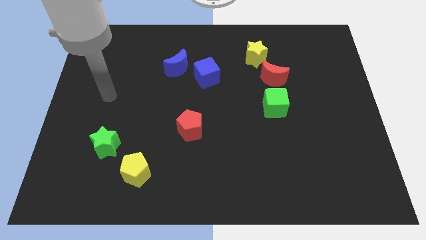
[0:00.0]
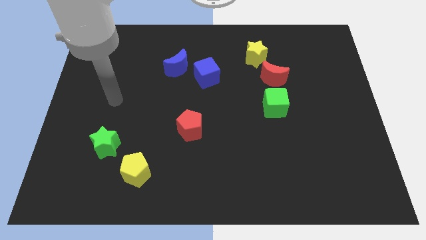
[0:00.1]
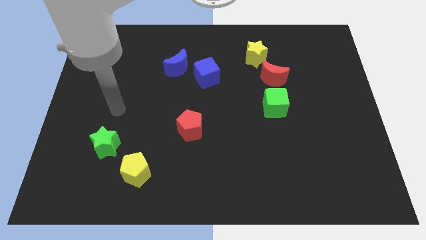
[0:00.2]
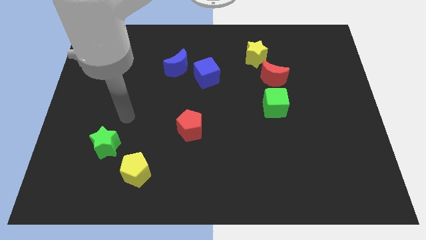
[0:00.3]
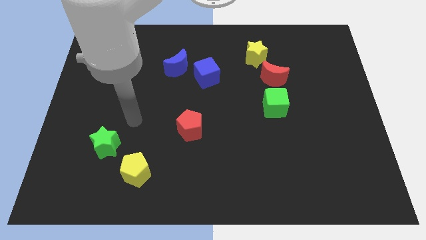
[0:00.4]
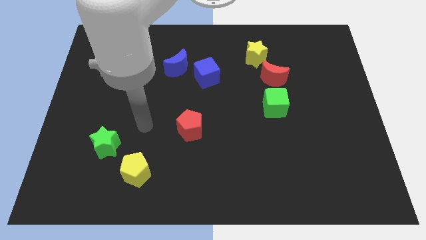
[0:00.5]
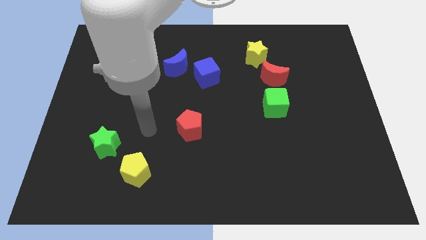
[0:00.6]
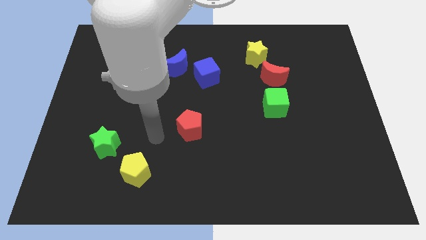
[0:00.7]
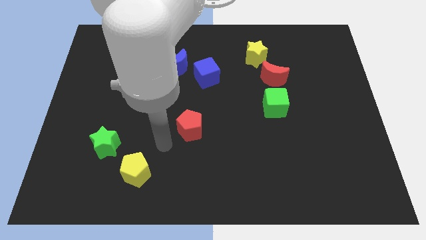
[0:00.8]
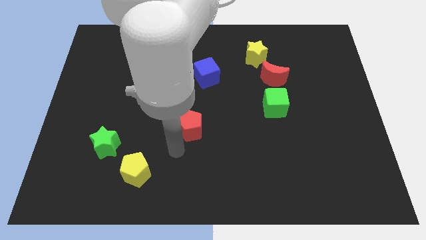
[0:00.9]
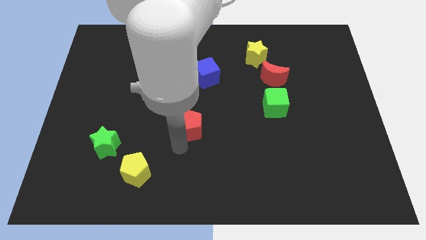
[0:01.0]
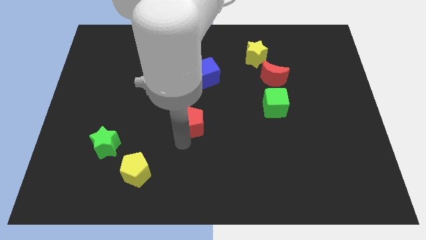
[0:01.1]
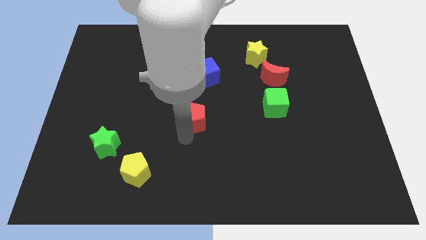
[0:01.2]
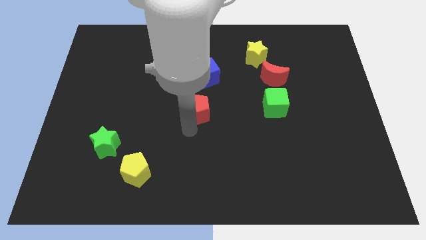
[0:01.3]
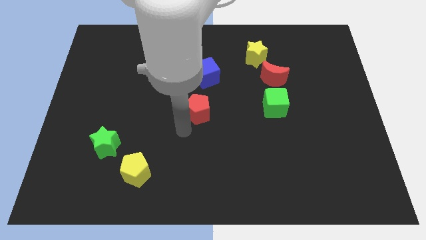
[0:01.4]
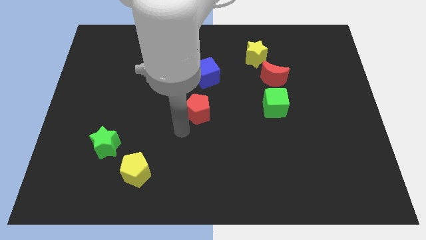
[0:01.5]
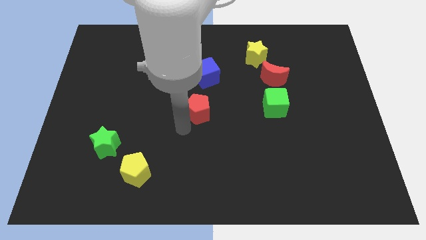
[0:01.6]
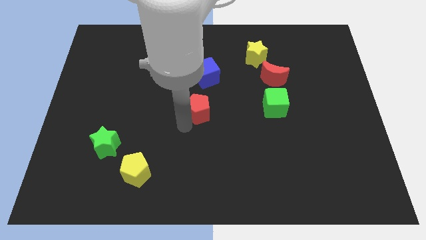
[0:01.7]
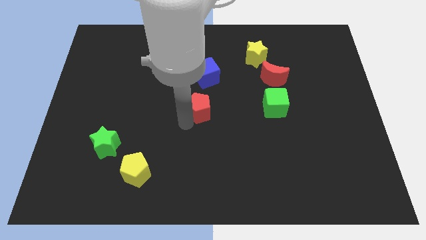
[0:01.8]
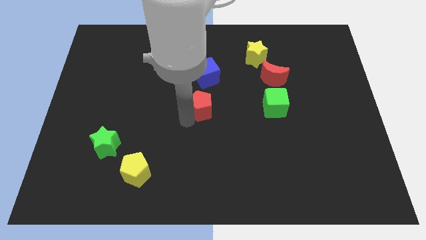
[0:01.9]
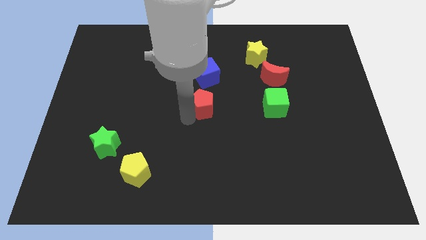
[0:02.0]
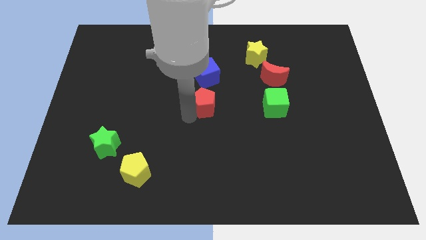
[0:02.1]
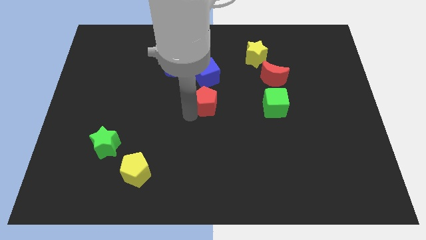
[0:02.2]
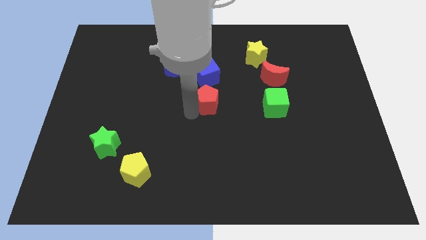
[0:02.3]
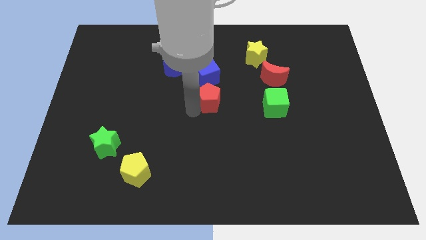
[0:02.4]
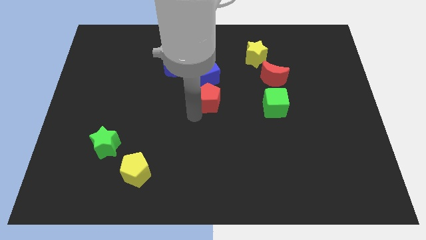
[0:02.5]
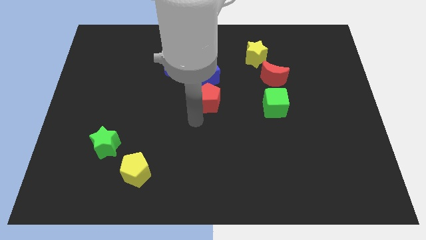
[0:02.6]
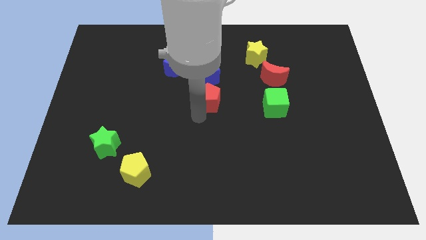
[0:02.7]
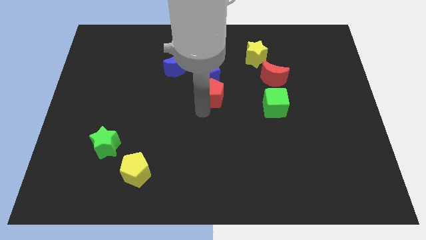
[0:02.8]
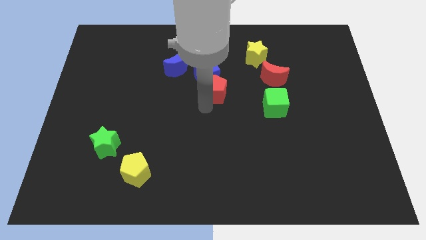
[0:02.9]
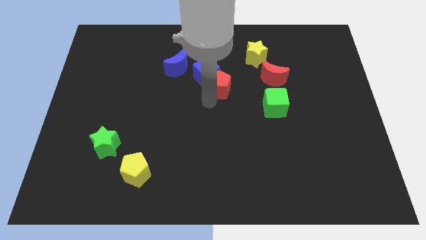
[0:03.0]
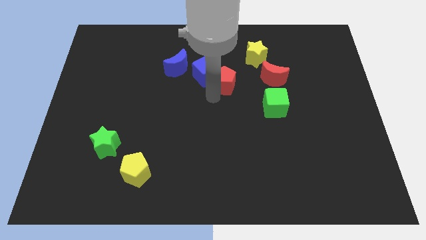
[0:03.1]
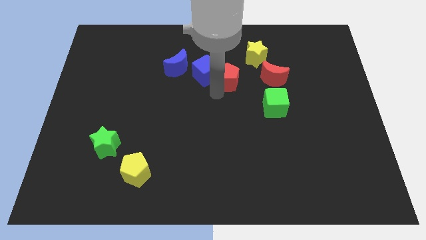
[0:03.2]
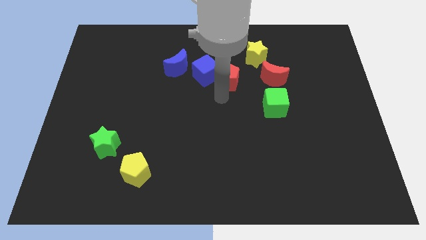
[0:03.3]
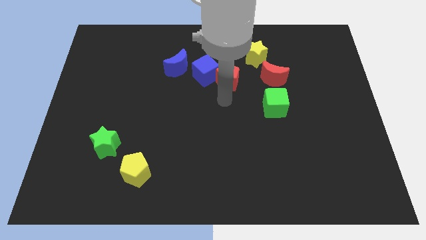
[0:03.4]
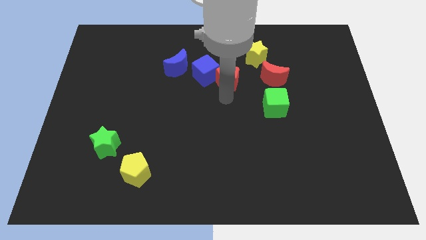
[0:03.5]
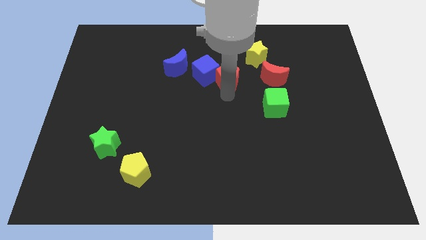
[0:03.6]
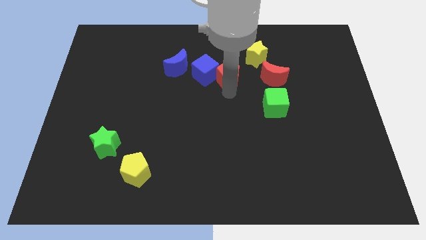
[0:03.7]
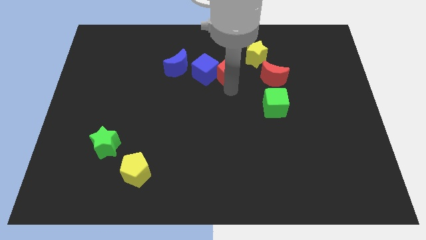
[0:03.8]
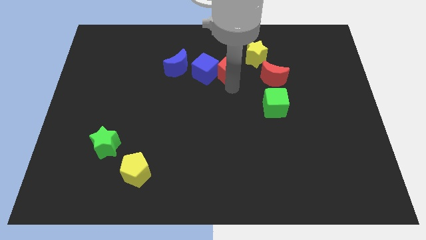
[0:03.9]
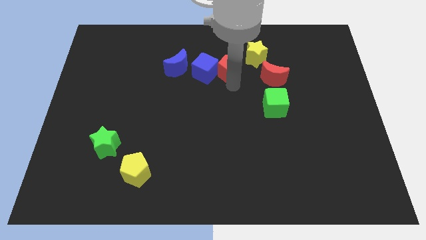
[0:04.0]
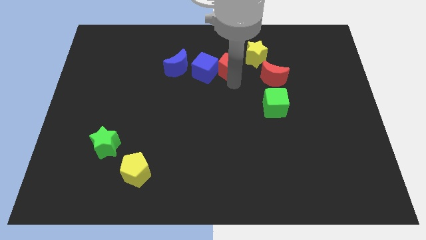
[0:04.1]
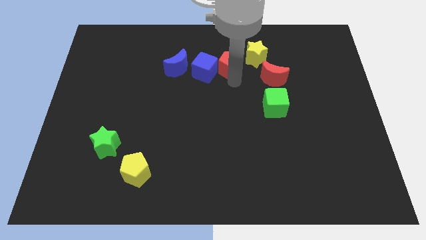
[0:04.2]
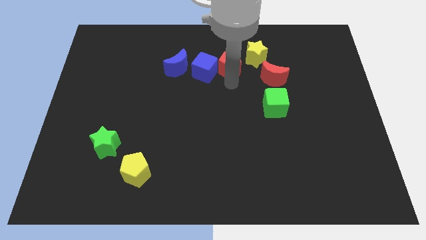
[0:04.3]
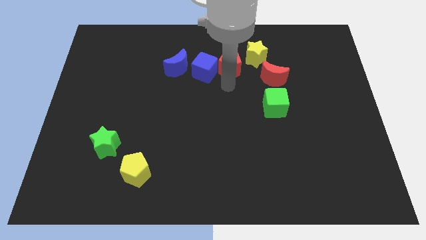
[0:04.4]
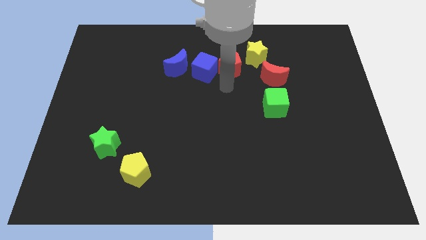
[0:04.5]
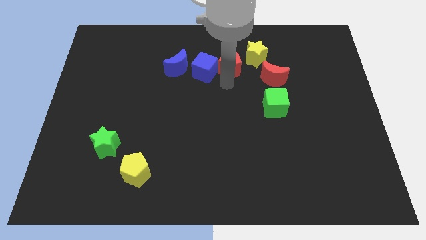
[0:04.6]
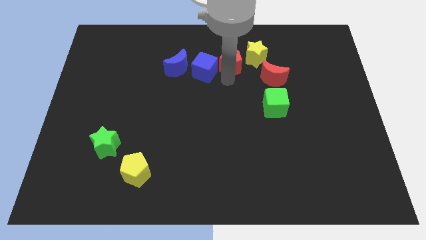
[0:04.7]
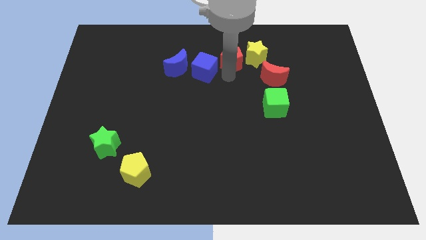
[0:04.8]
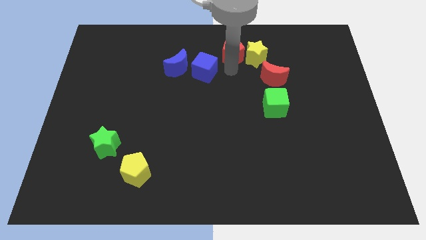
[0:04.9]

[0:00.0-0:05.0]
slide the red pentagon to the top side

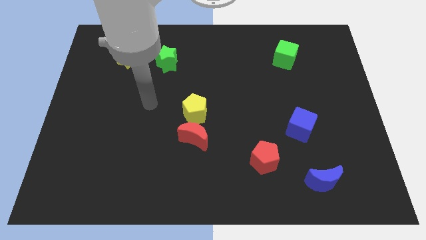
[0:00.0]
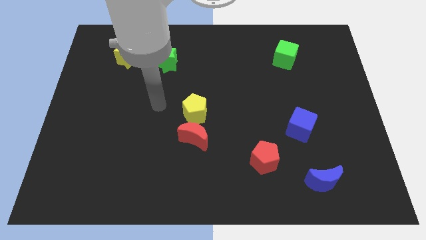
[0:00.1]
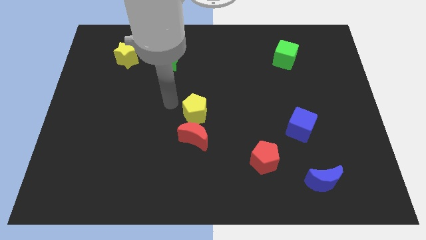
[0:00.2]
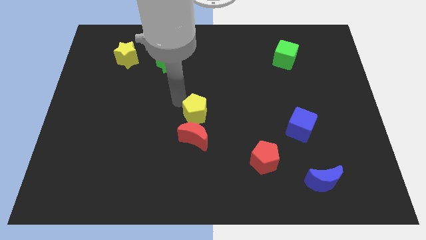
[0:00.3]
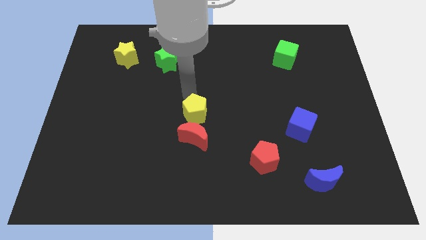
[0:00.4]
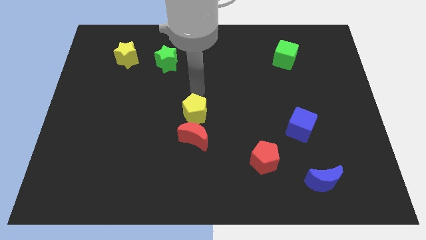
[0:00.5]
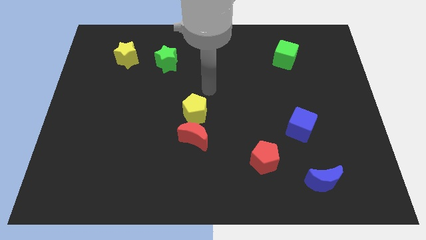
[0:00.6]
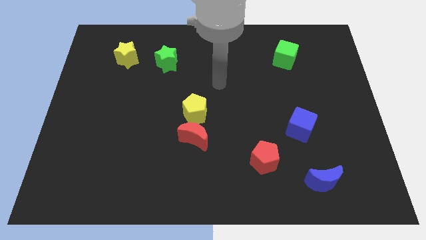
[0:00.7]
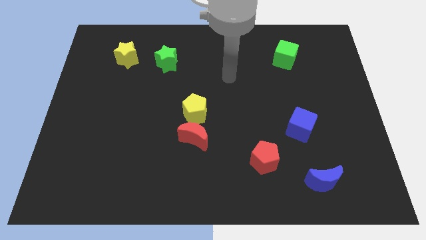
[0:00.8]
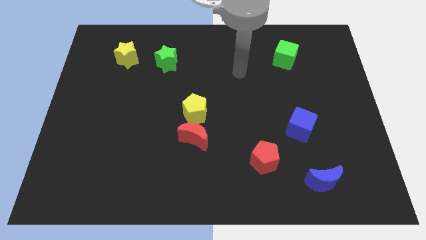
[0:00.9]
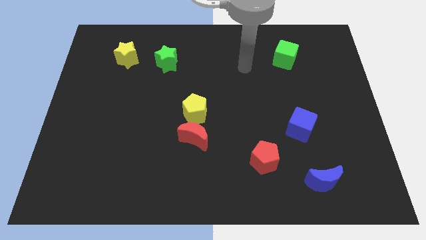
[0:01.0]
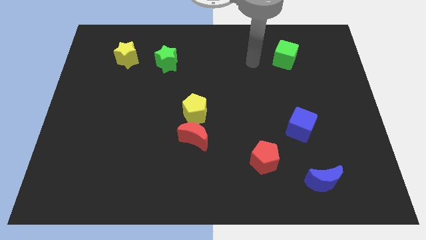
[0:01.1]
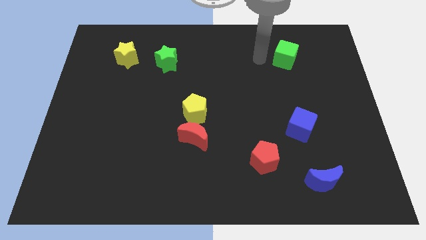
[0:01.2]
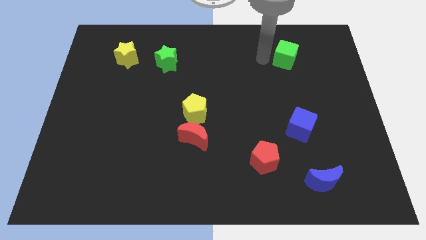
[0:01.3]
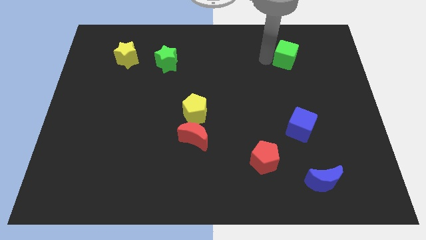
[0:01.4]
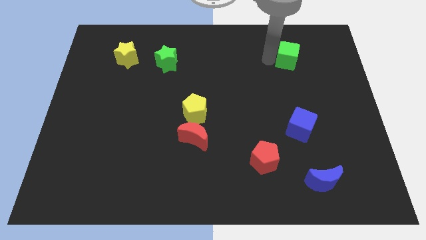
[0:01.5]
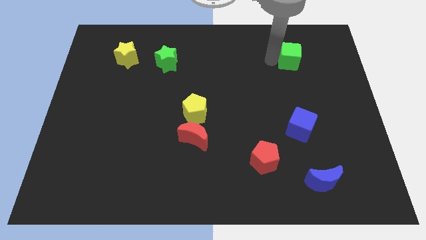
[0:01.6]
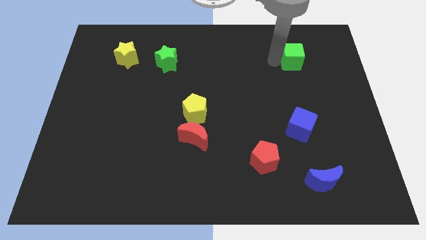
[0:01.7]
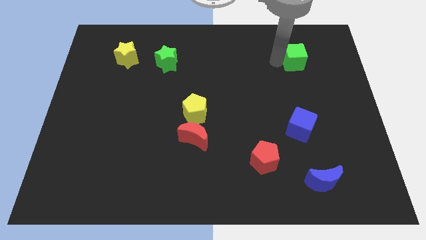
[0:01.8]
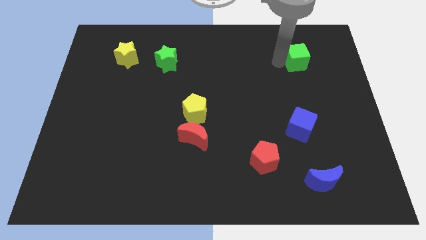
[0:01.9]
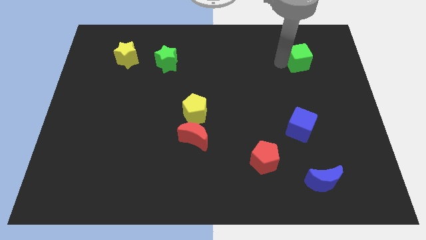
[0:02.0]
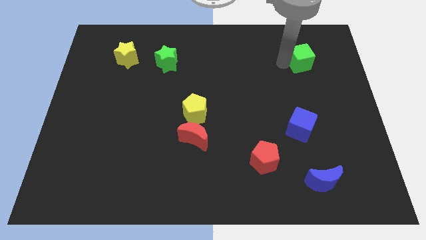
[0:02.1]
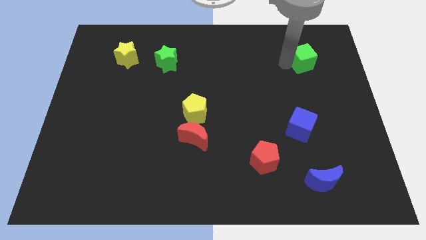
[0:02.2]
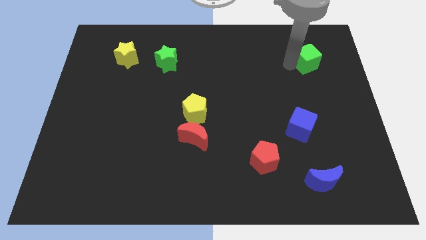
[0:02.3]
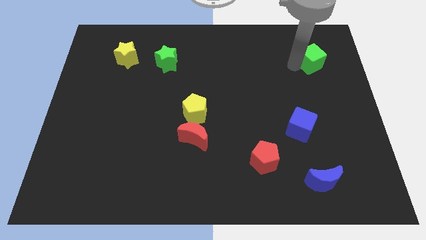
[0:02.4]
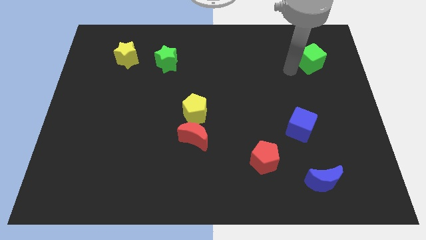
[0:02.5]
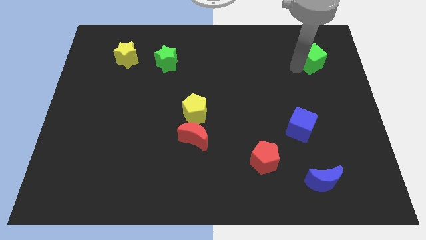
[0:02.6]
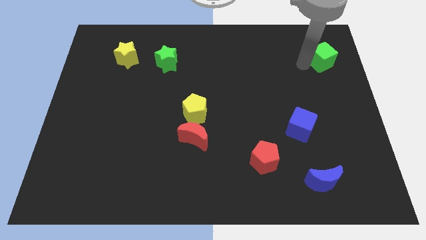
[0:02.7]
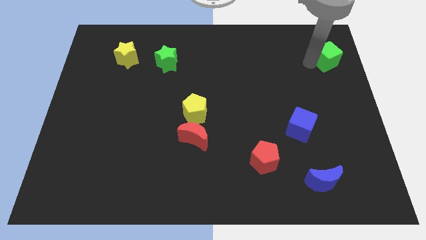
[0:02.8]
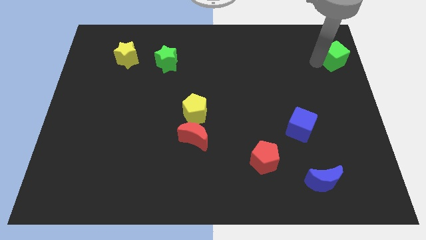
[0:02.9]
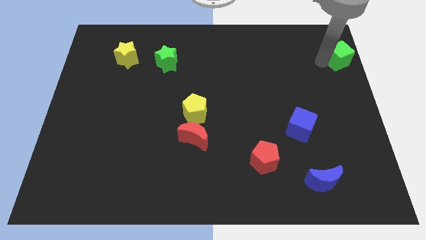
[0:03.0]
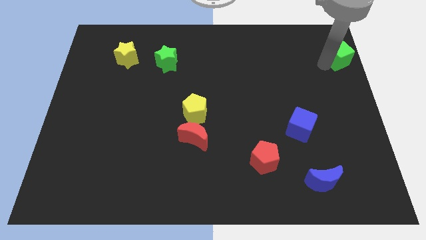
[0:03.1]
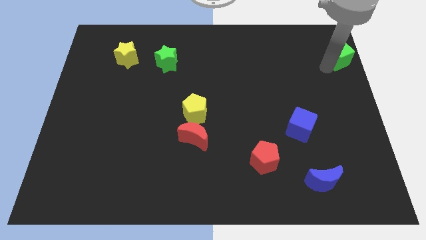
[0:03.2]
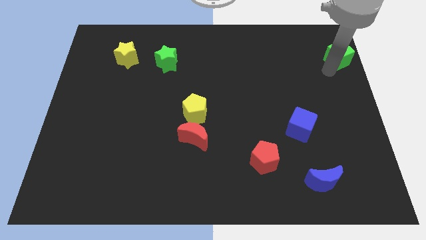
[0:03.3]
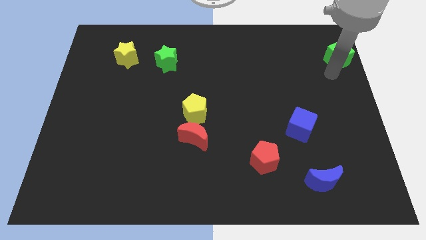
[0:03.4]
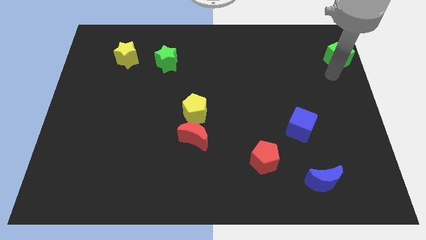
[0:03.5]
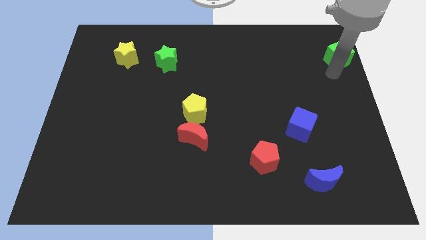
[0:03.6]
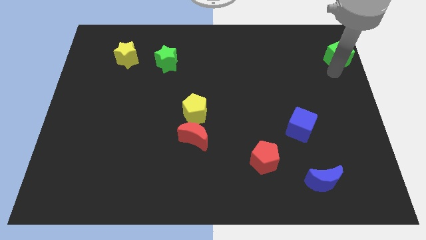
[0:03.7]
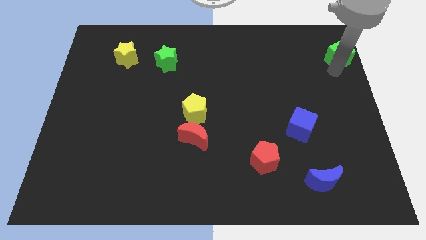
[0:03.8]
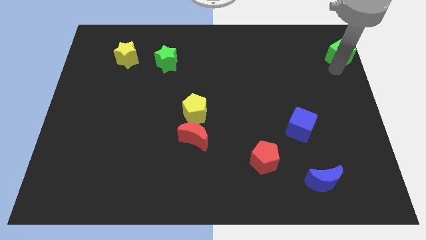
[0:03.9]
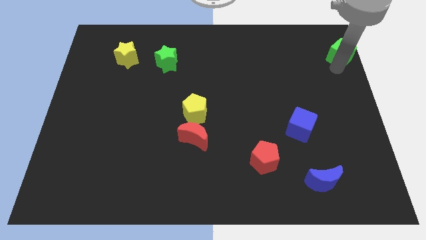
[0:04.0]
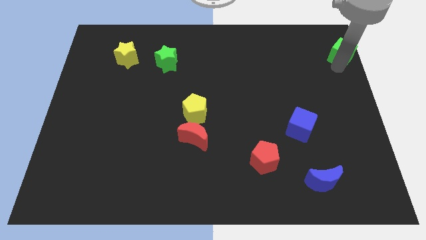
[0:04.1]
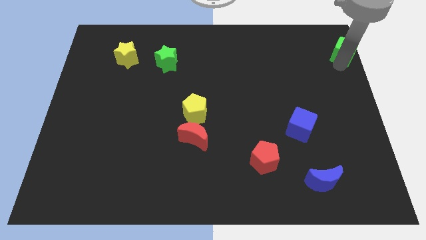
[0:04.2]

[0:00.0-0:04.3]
move the green cube to the top right of the board
